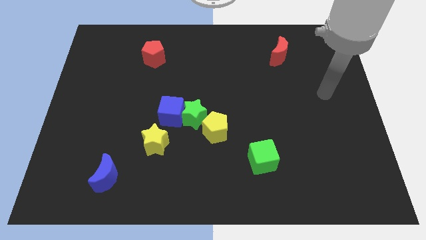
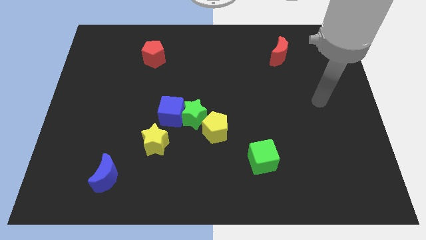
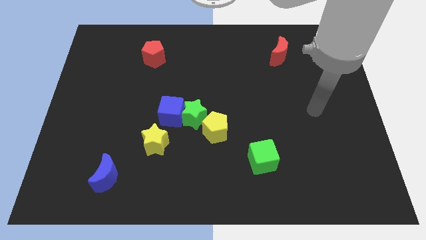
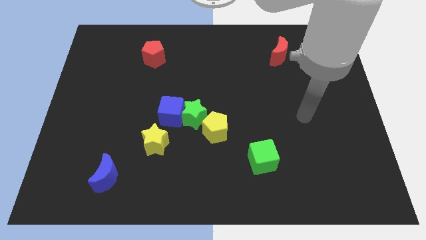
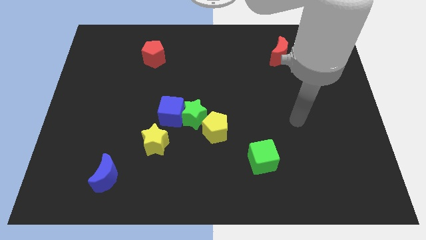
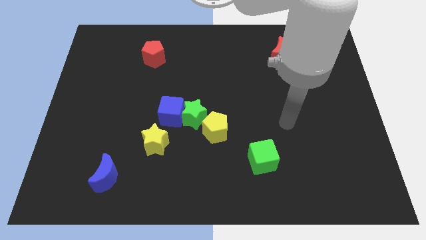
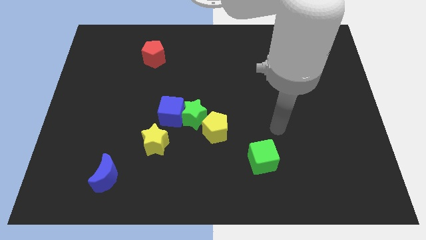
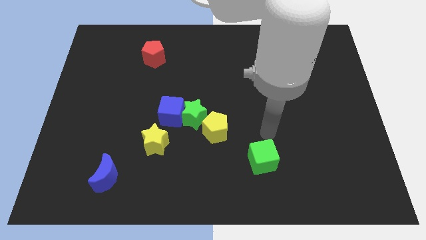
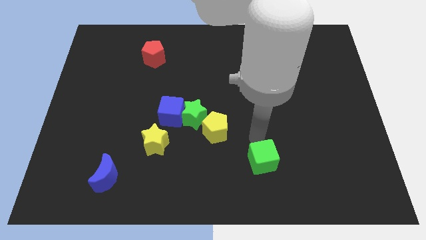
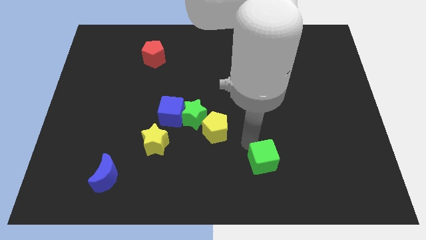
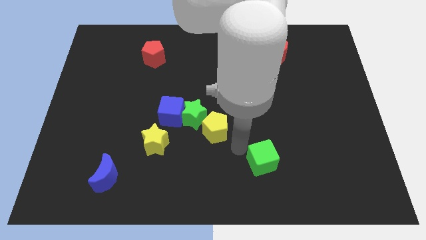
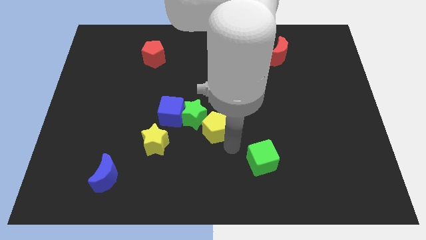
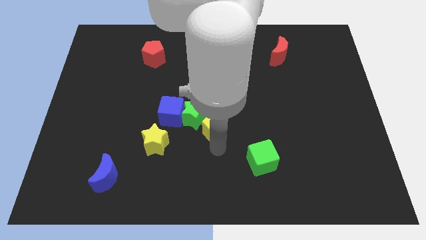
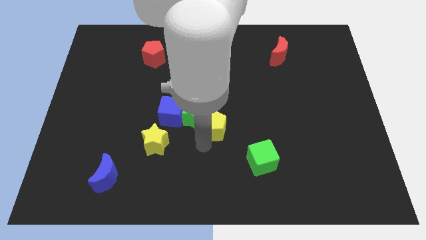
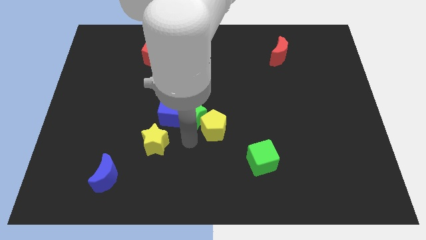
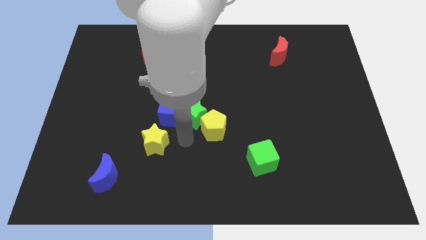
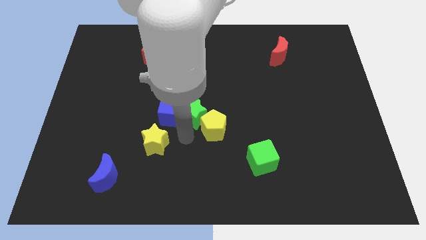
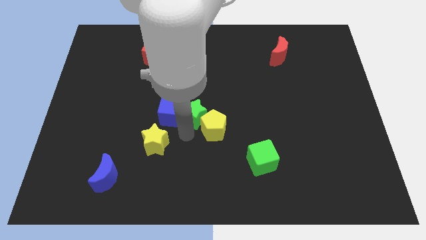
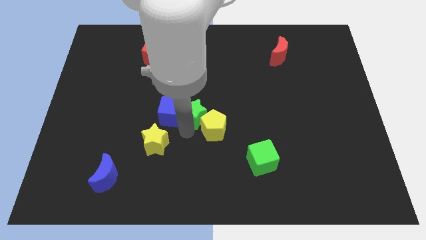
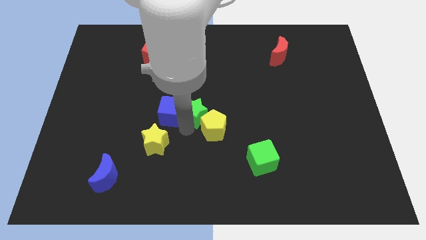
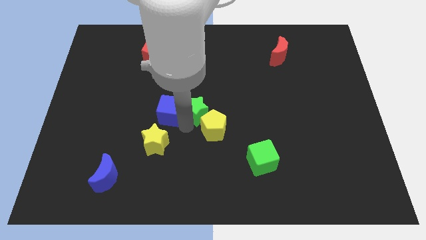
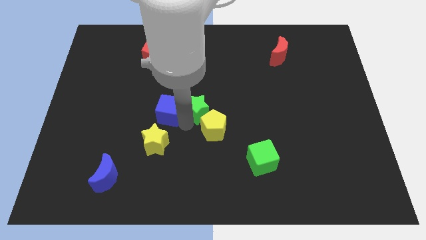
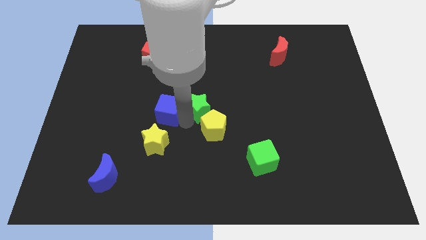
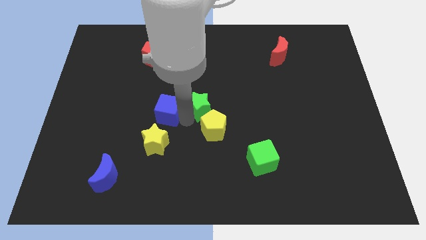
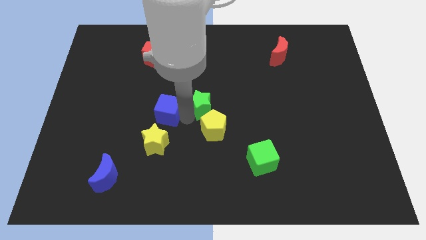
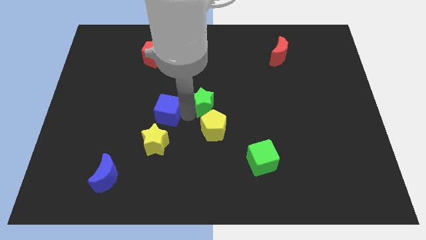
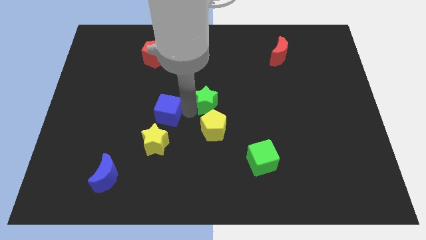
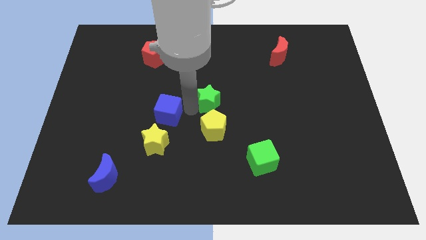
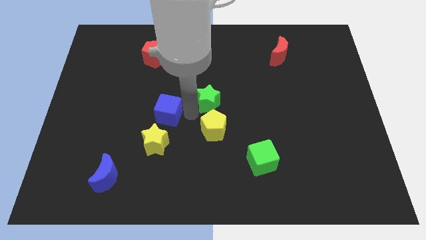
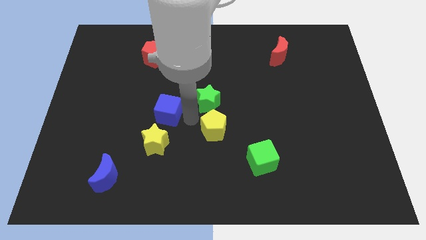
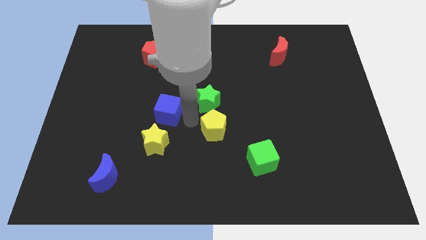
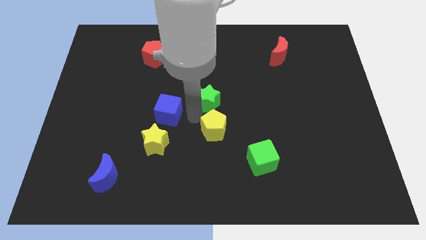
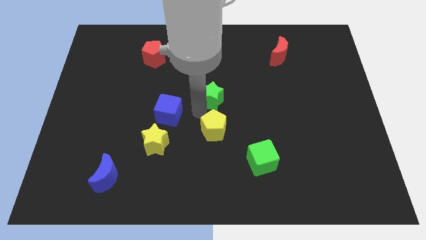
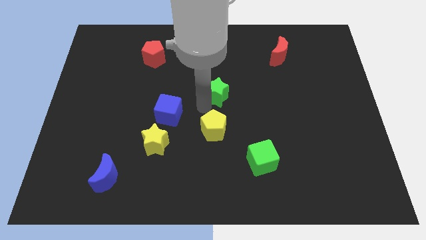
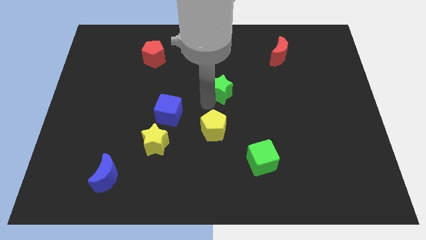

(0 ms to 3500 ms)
pull the green star apart from the blue cube and yellow pentagon

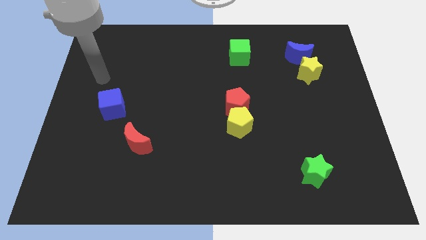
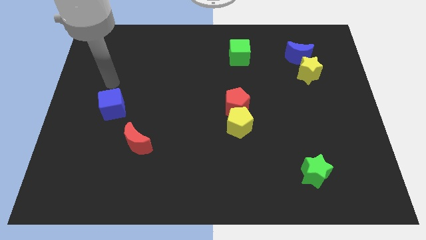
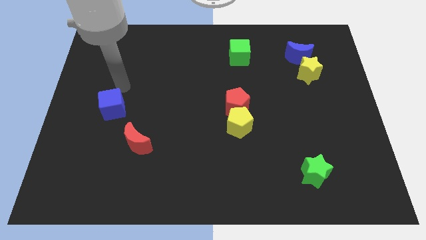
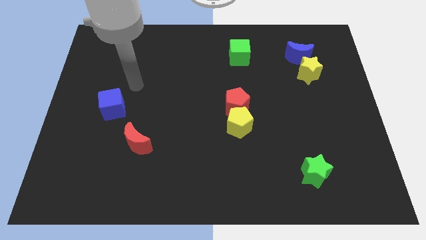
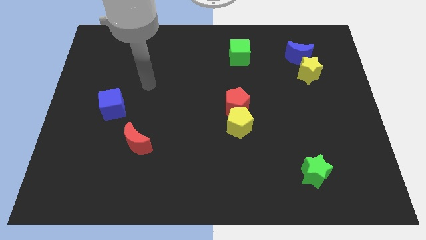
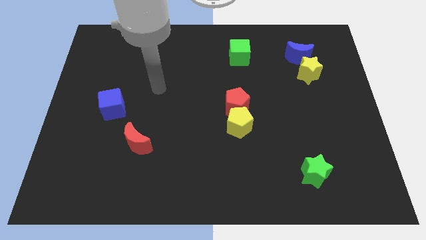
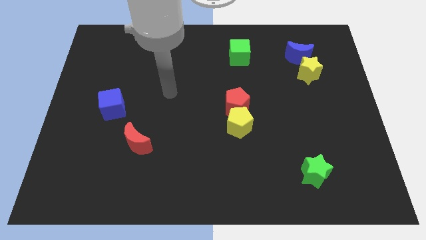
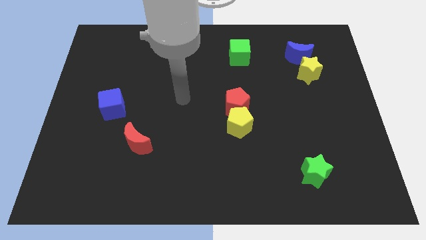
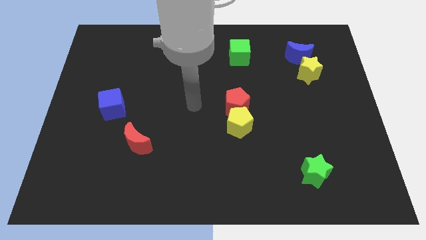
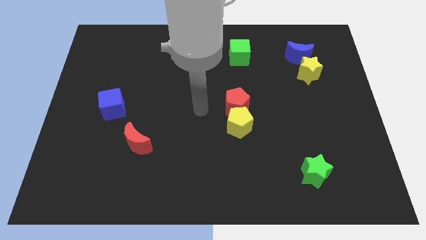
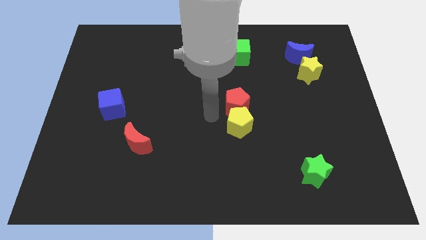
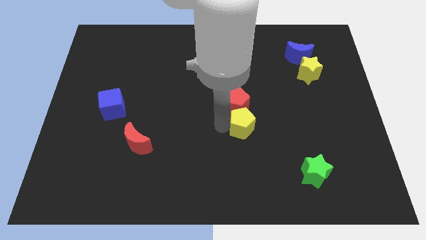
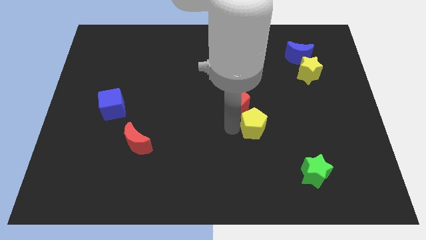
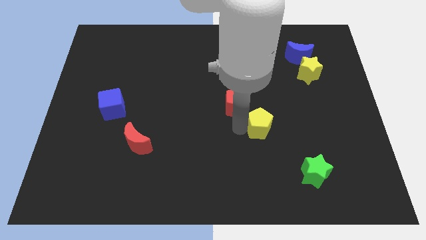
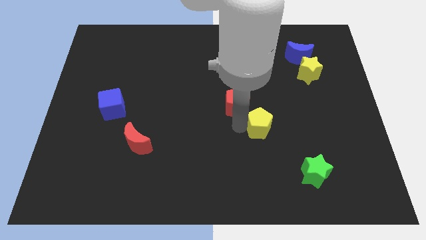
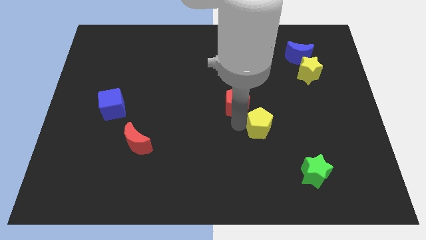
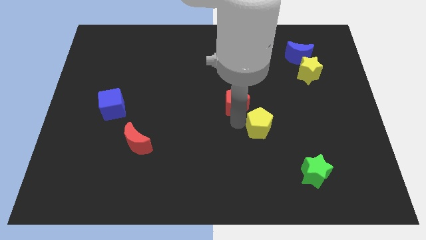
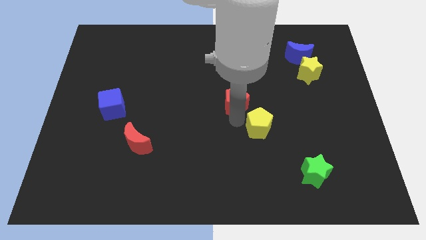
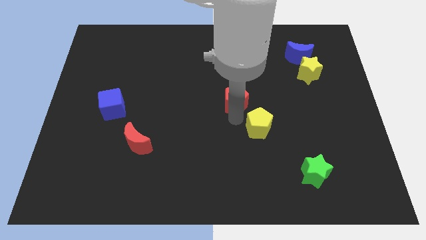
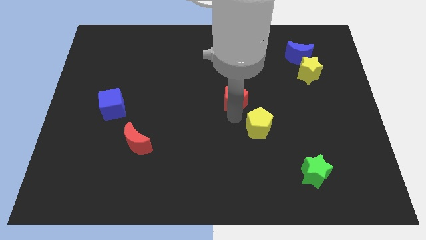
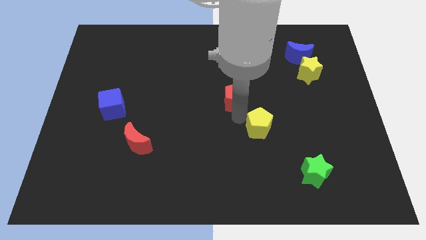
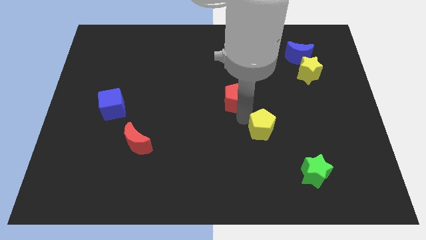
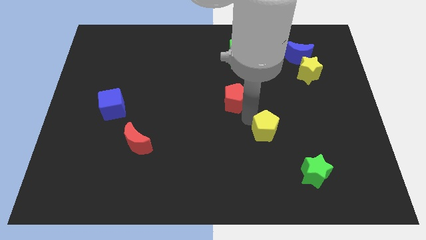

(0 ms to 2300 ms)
pull the red pentagon apart from the yellow pentagon

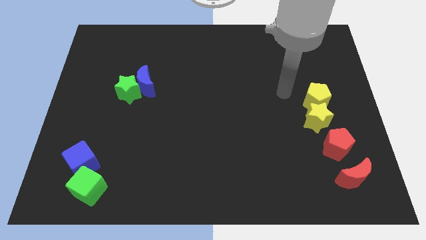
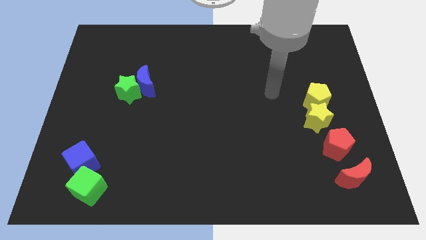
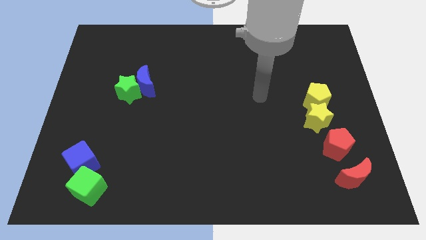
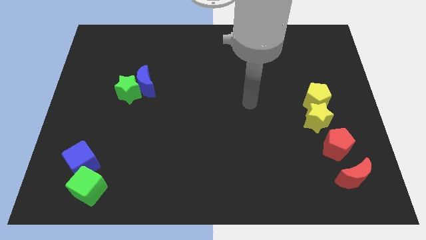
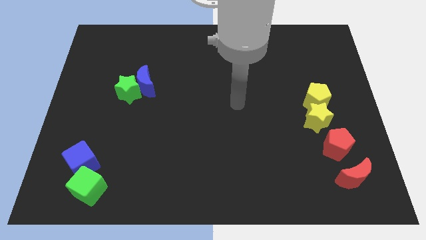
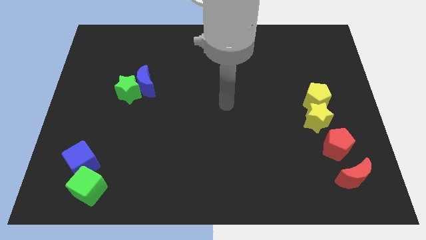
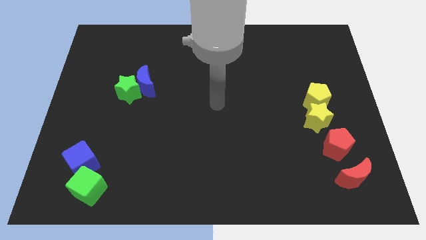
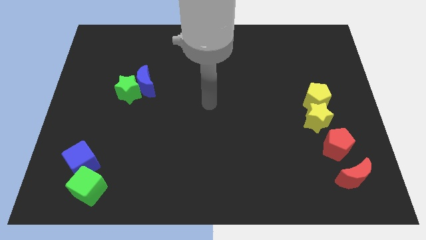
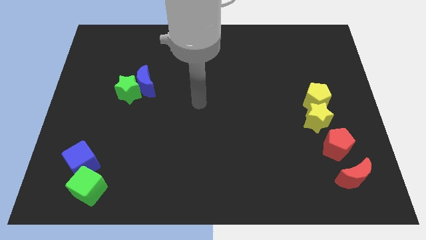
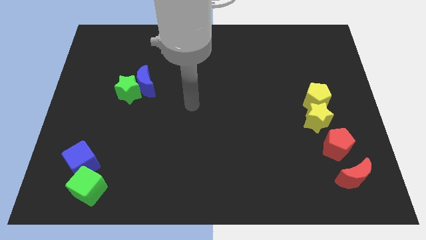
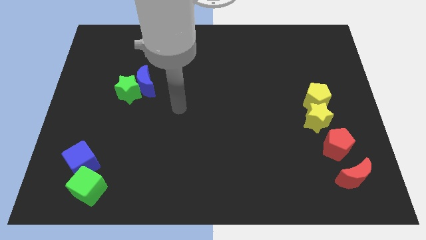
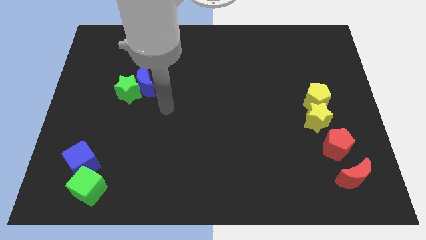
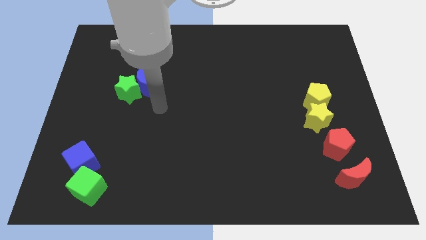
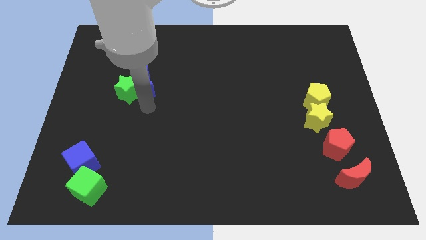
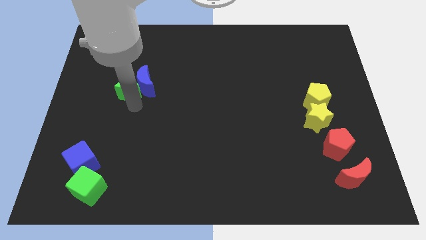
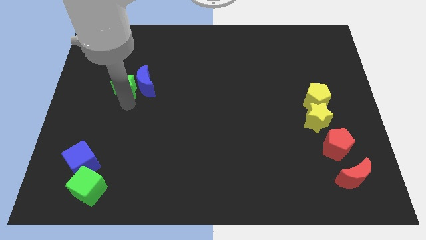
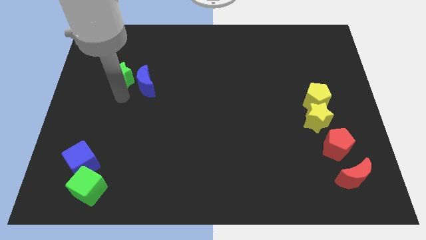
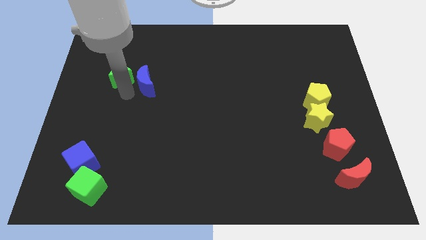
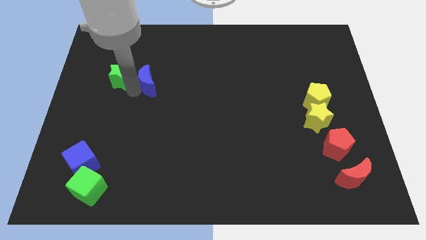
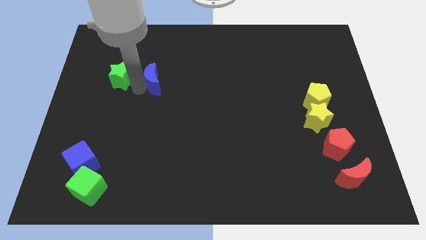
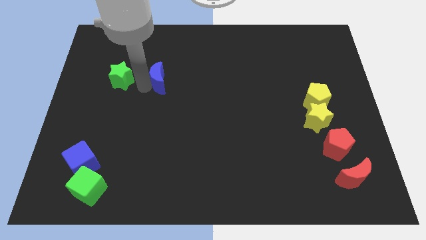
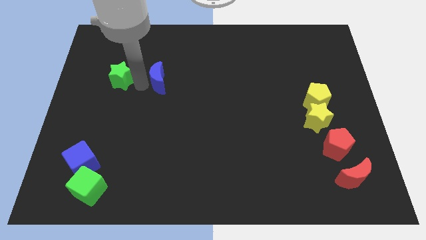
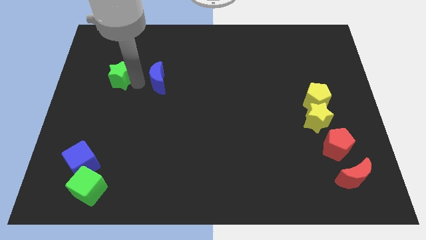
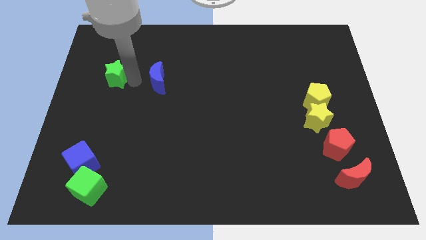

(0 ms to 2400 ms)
pull the blue moon apart from the green star

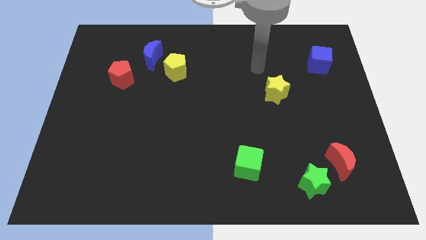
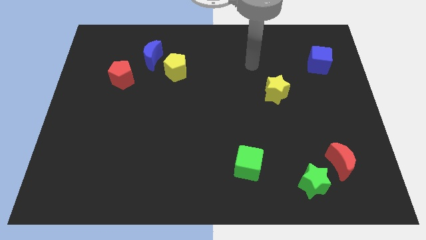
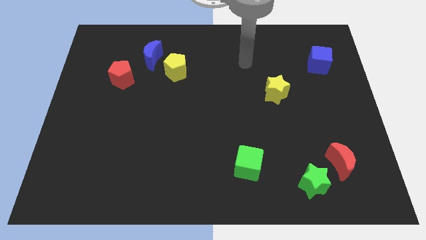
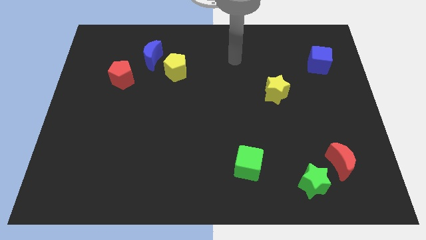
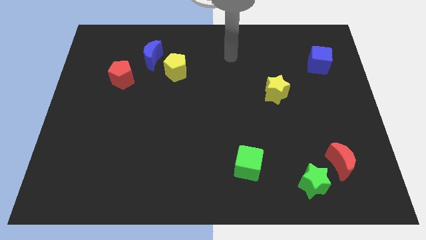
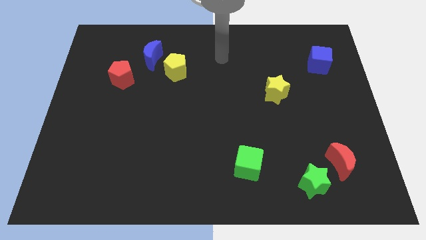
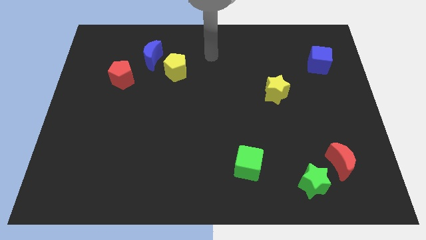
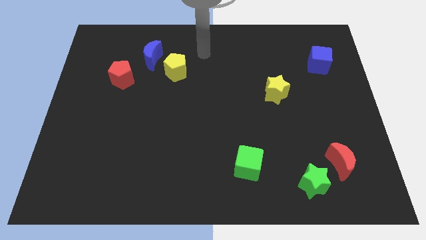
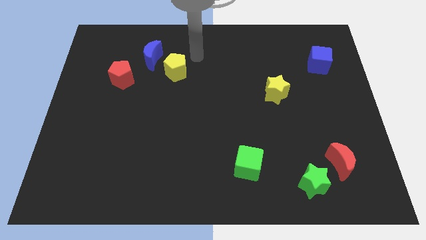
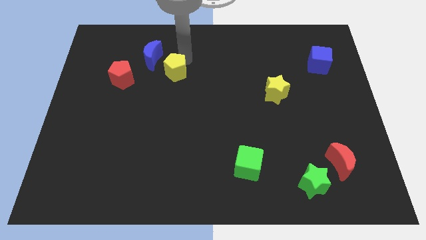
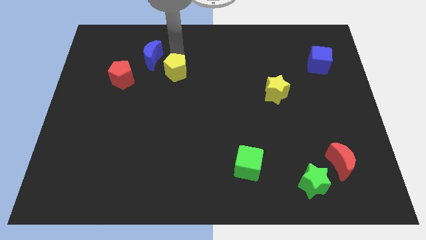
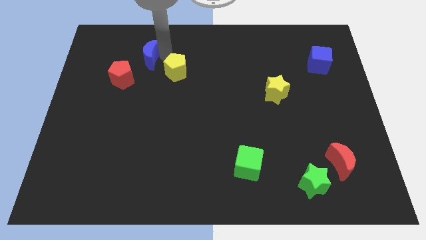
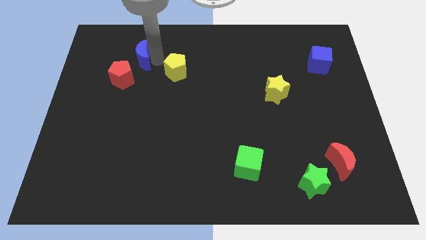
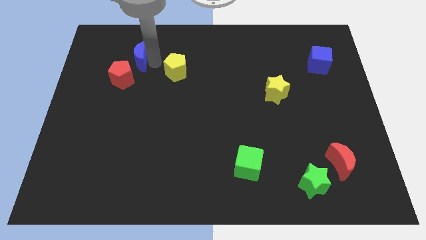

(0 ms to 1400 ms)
separate the yellow pentagon from the blue moon
